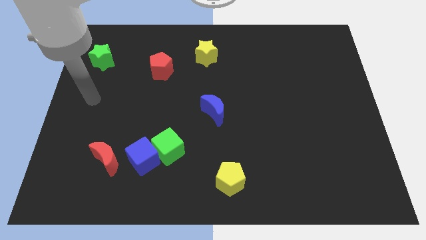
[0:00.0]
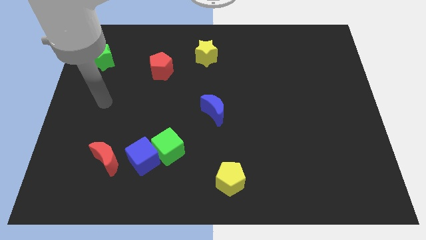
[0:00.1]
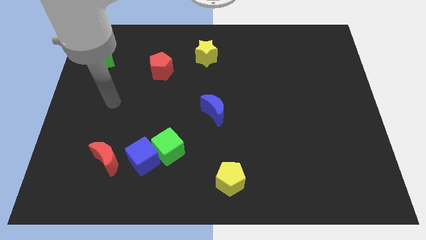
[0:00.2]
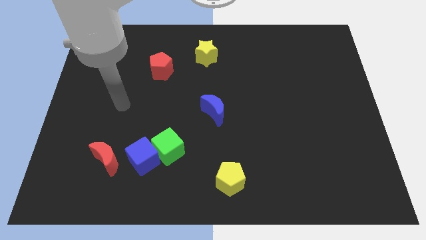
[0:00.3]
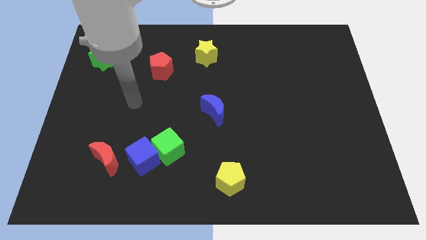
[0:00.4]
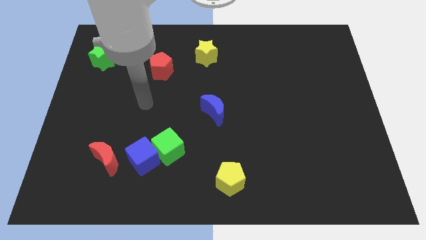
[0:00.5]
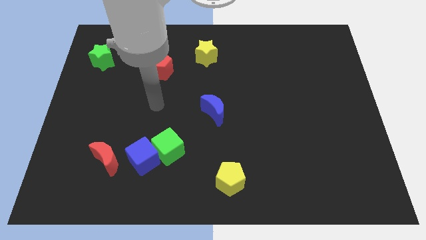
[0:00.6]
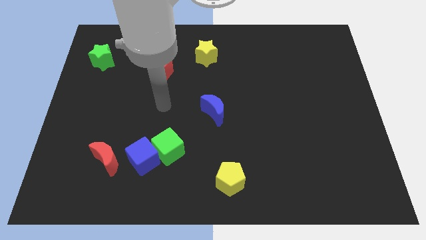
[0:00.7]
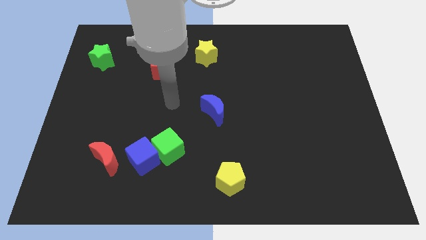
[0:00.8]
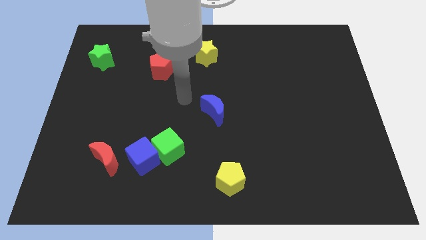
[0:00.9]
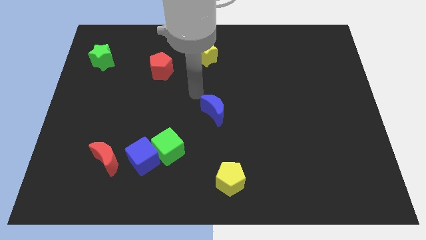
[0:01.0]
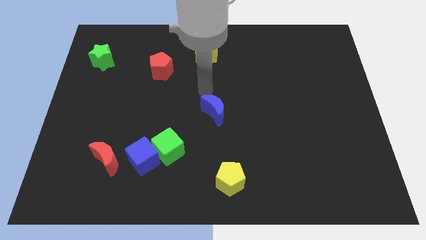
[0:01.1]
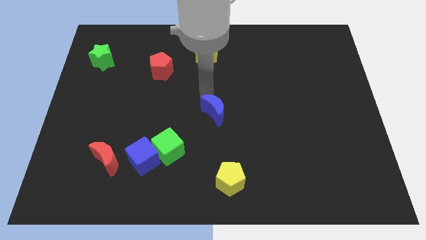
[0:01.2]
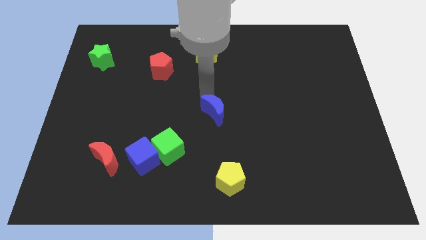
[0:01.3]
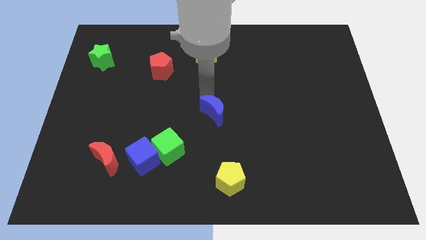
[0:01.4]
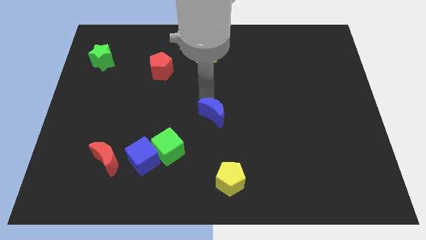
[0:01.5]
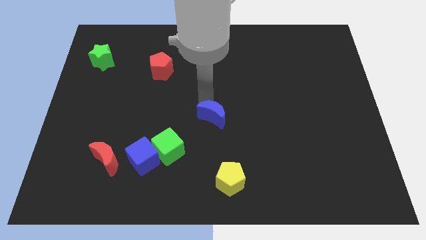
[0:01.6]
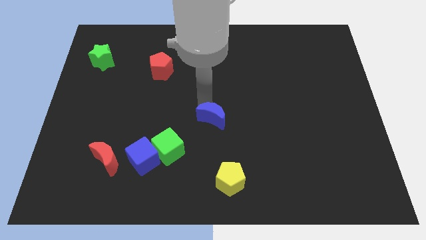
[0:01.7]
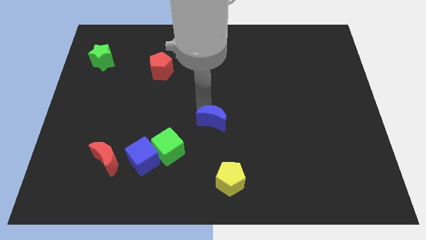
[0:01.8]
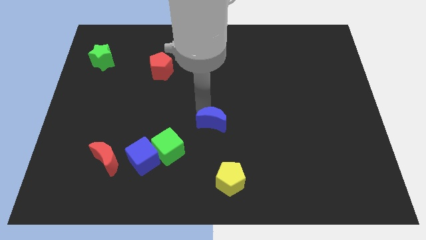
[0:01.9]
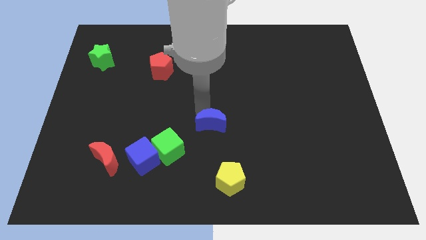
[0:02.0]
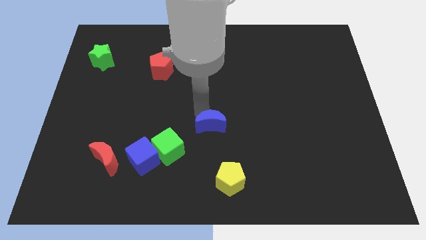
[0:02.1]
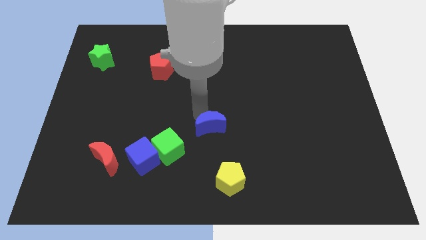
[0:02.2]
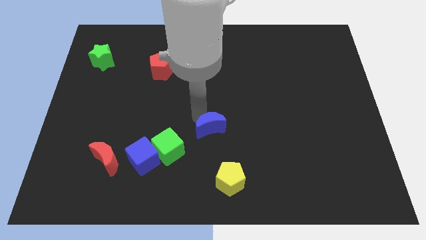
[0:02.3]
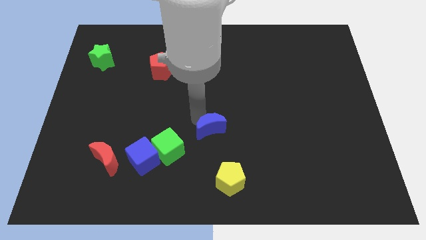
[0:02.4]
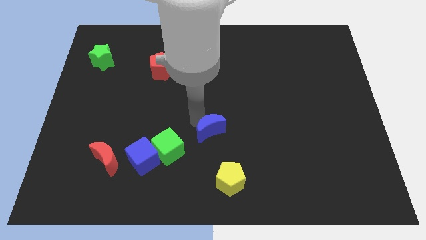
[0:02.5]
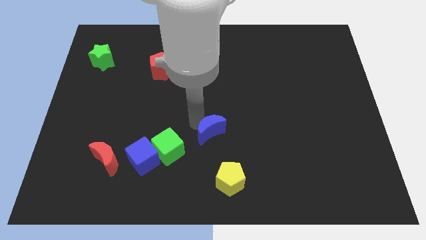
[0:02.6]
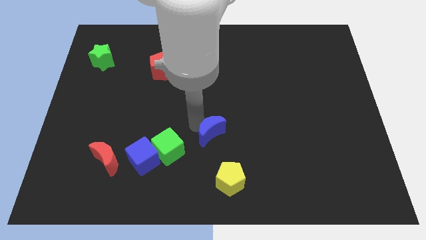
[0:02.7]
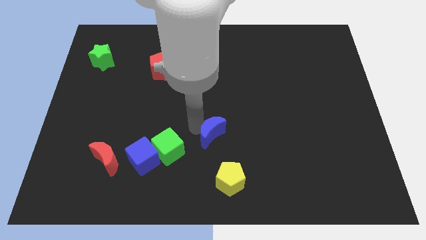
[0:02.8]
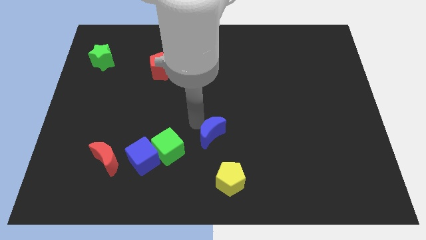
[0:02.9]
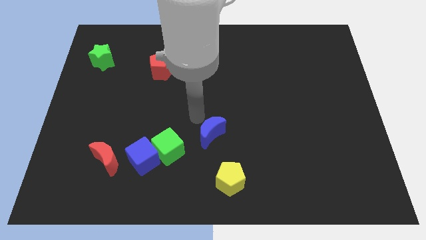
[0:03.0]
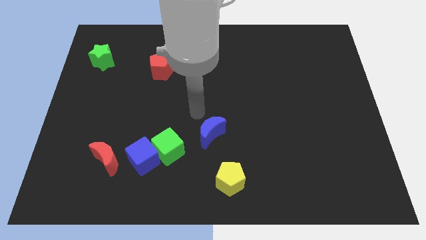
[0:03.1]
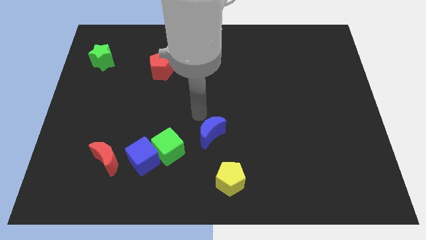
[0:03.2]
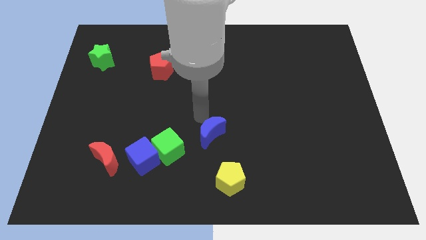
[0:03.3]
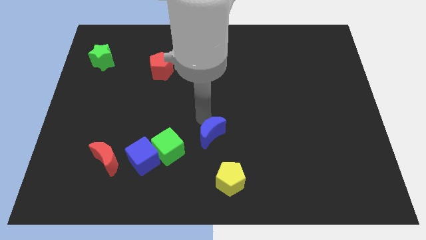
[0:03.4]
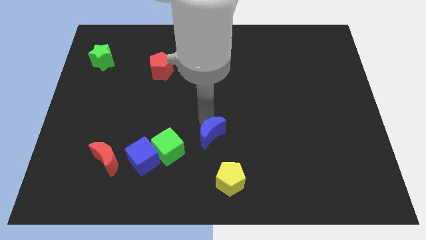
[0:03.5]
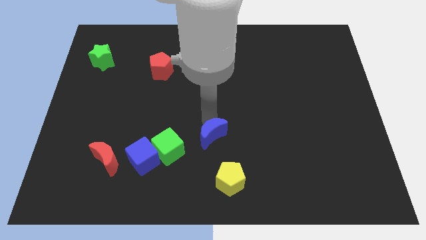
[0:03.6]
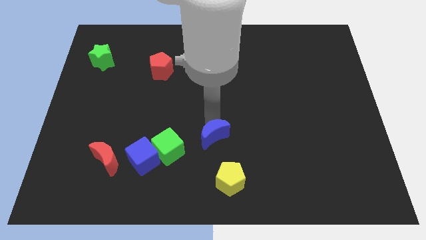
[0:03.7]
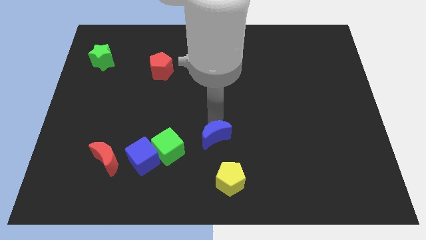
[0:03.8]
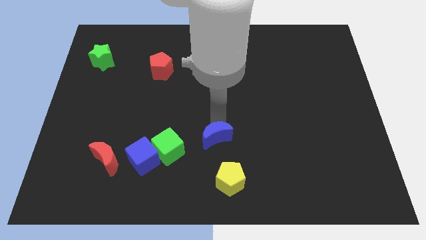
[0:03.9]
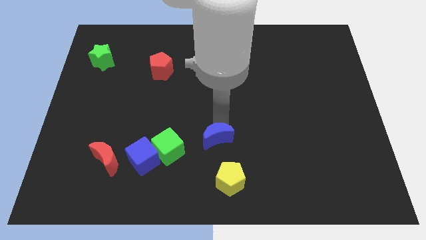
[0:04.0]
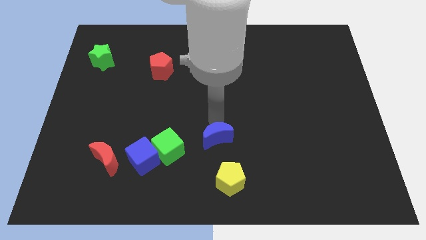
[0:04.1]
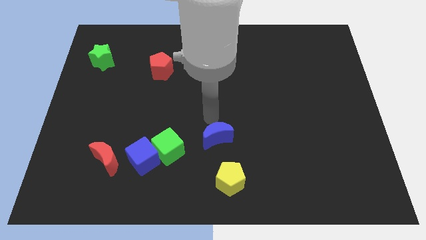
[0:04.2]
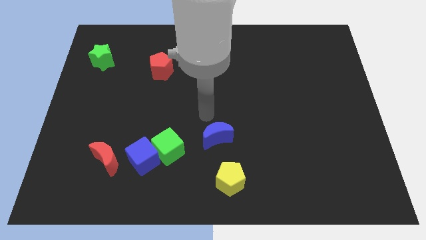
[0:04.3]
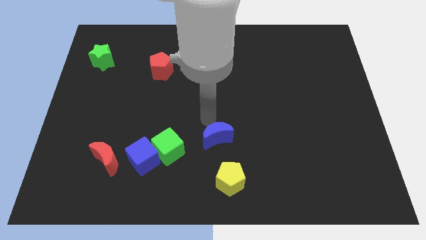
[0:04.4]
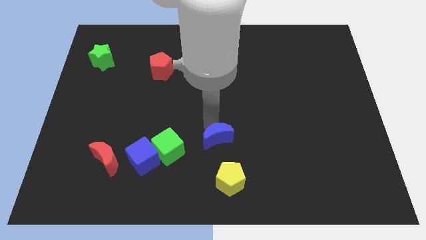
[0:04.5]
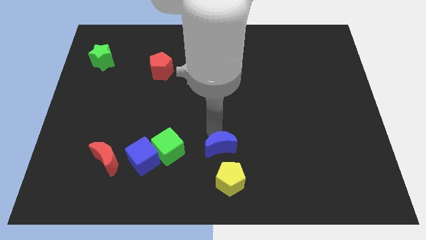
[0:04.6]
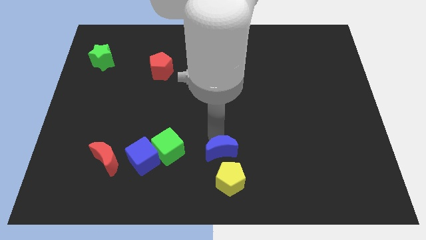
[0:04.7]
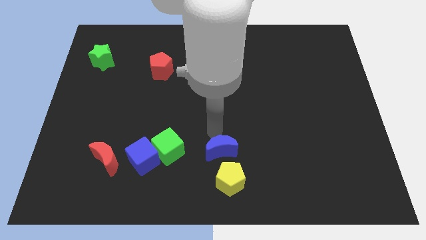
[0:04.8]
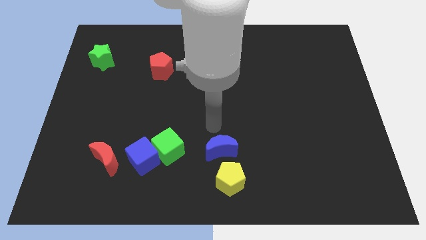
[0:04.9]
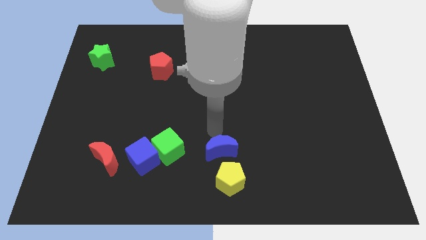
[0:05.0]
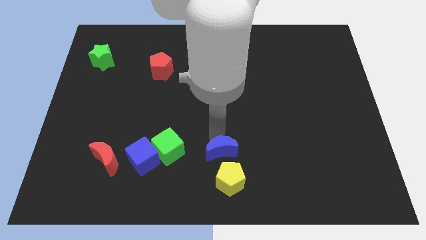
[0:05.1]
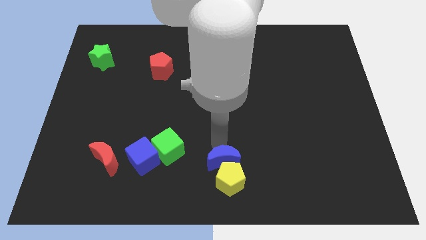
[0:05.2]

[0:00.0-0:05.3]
move the blue moon towards the yellow pentagon

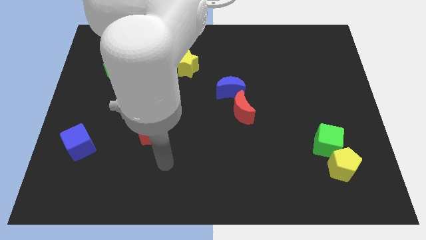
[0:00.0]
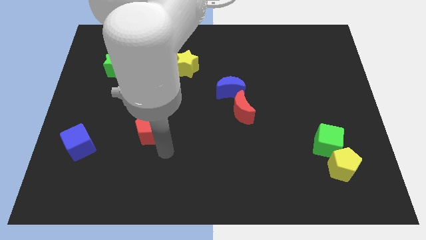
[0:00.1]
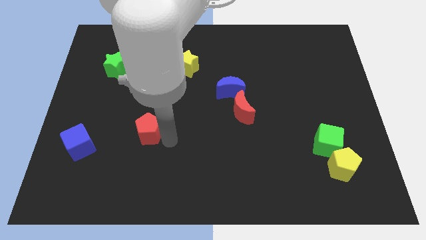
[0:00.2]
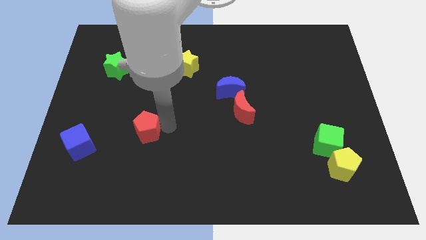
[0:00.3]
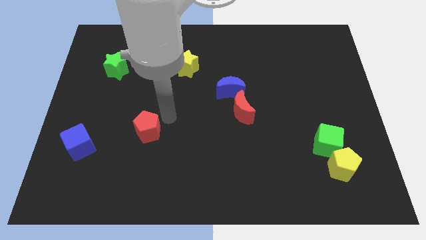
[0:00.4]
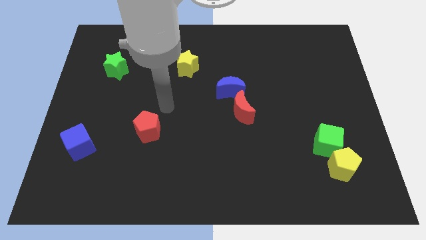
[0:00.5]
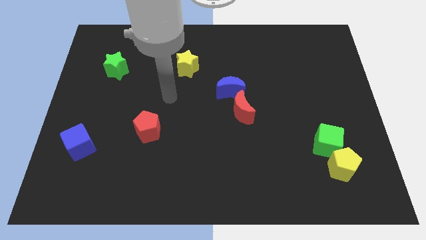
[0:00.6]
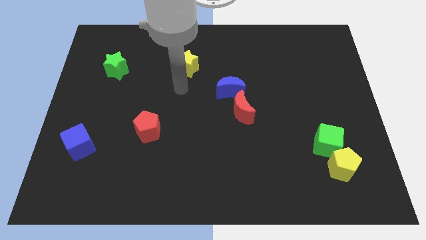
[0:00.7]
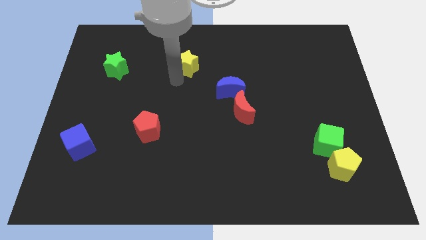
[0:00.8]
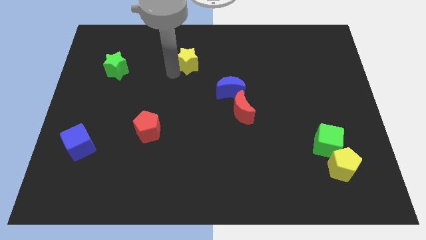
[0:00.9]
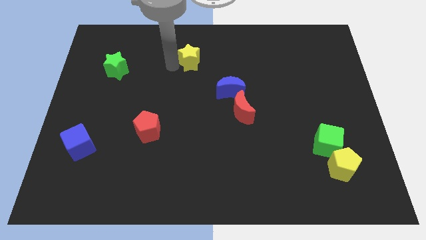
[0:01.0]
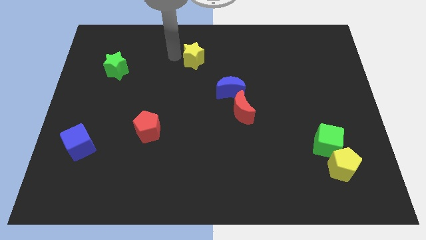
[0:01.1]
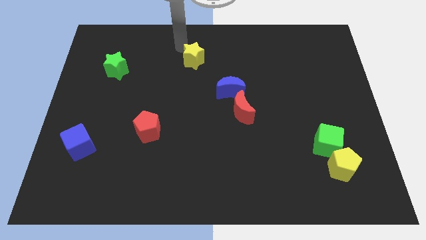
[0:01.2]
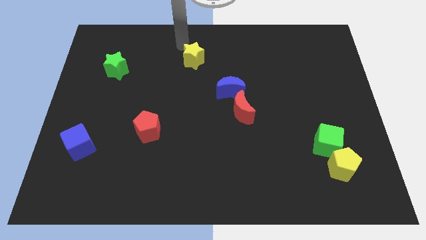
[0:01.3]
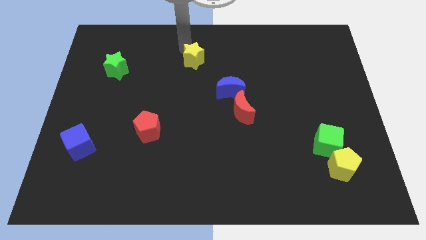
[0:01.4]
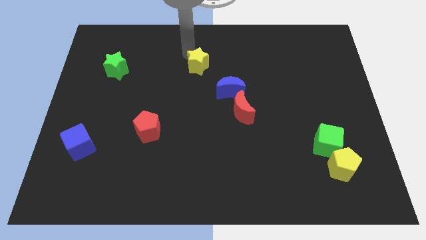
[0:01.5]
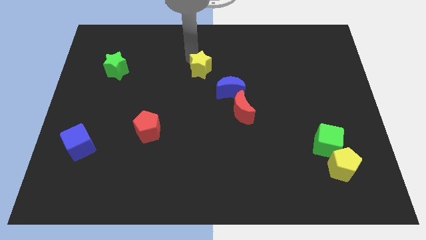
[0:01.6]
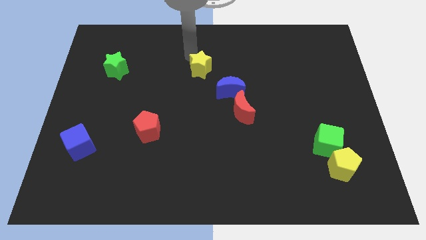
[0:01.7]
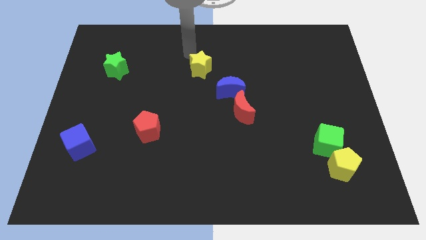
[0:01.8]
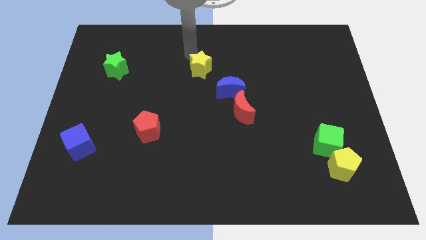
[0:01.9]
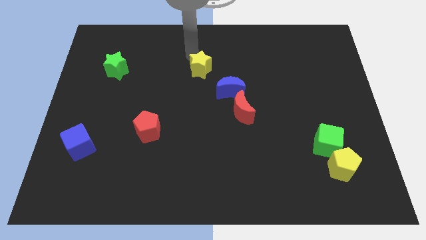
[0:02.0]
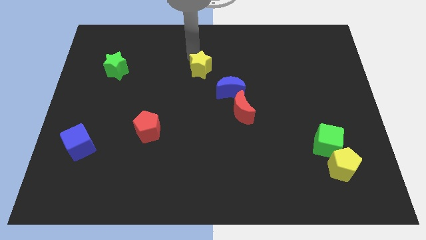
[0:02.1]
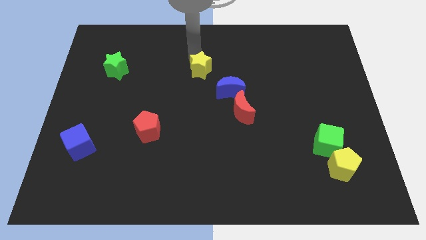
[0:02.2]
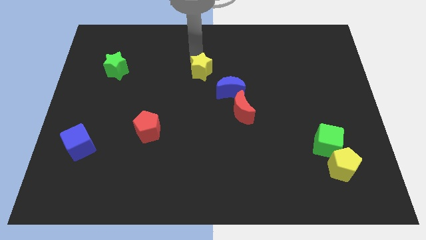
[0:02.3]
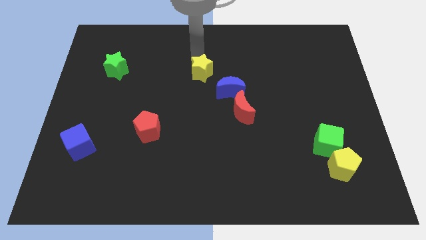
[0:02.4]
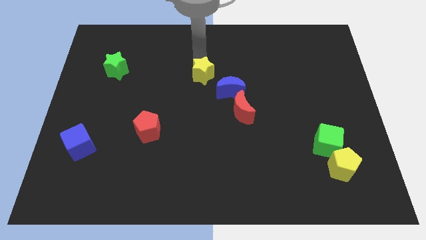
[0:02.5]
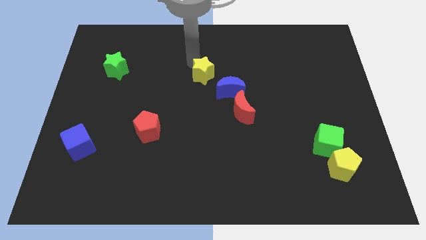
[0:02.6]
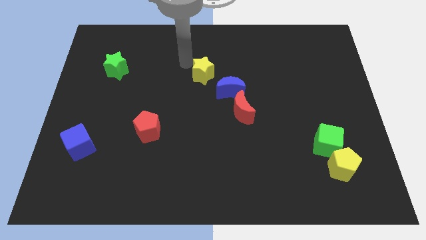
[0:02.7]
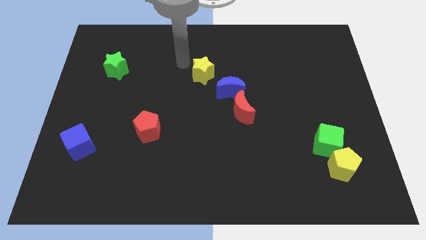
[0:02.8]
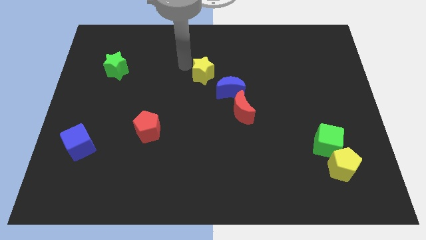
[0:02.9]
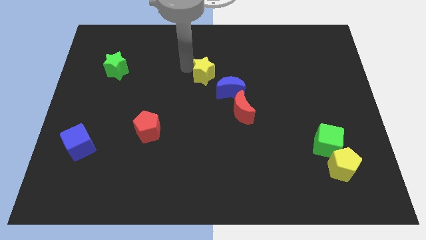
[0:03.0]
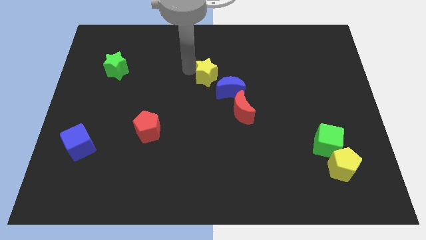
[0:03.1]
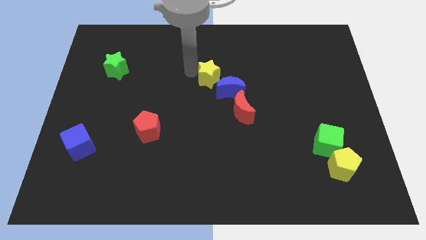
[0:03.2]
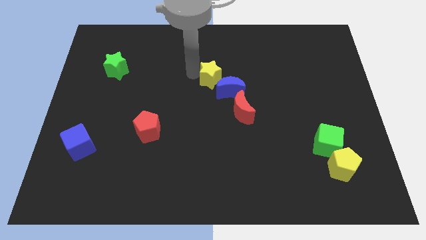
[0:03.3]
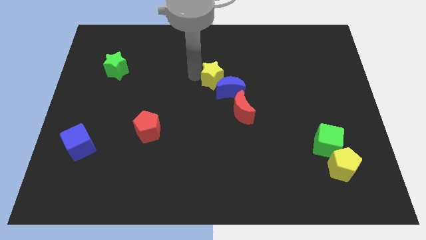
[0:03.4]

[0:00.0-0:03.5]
slide the yellow star to the blue moon
